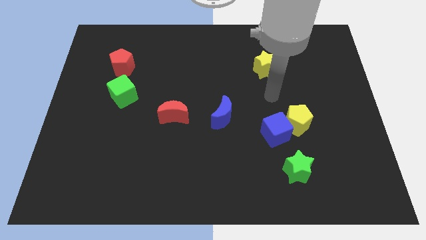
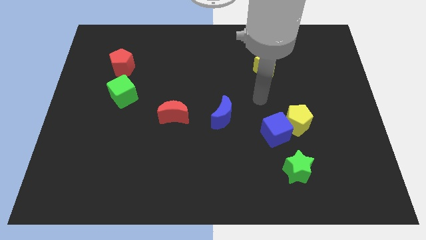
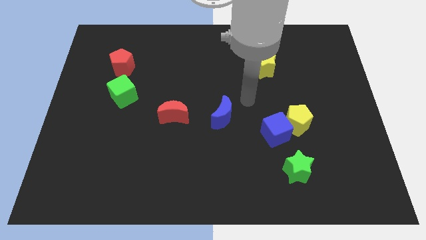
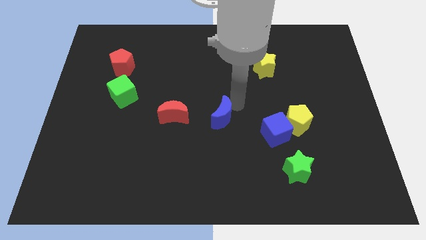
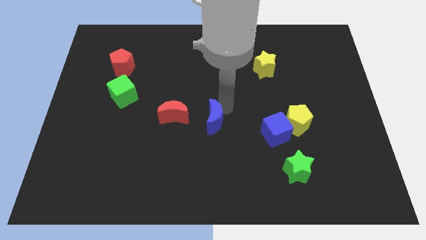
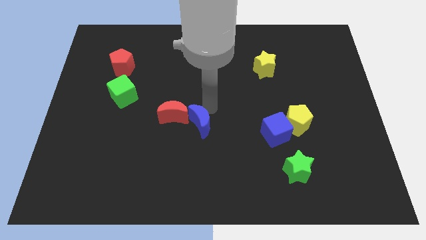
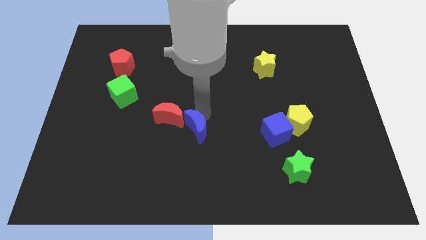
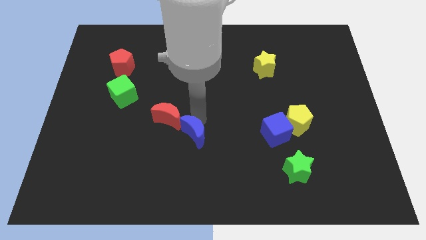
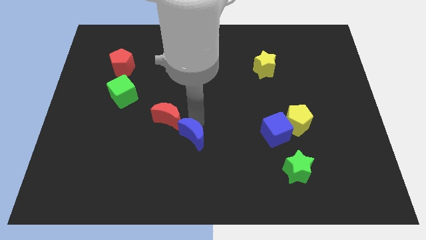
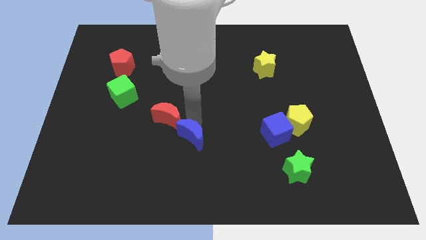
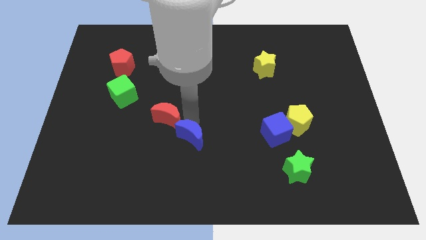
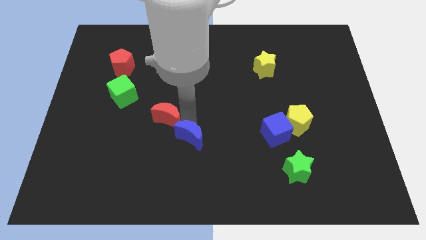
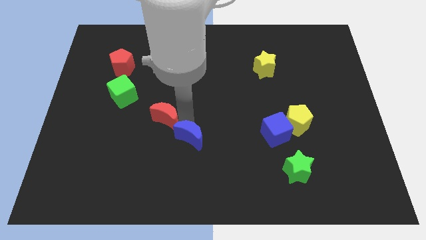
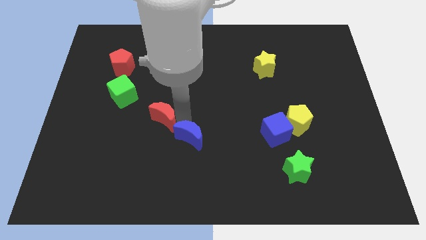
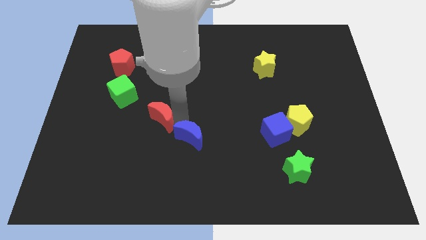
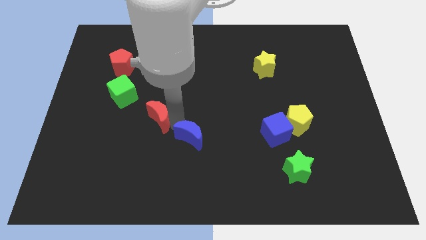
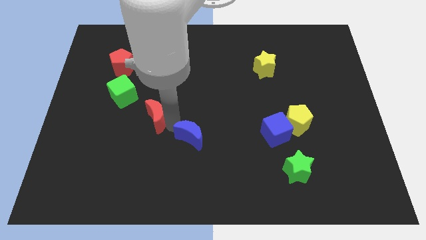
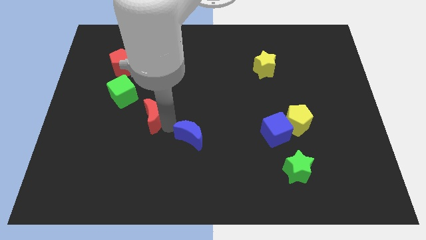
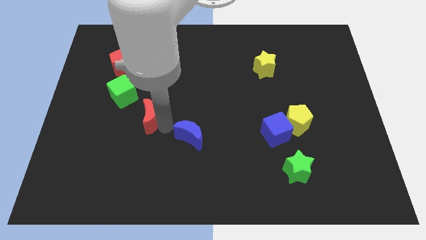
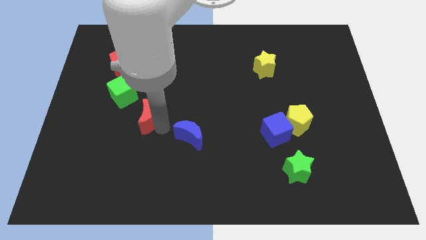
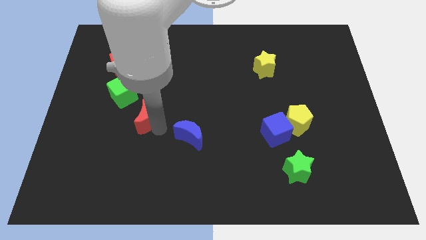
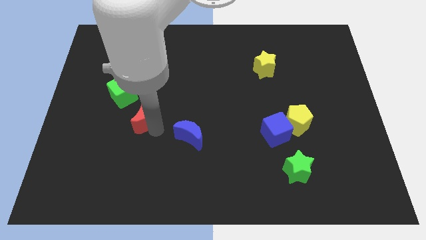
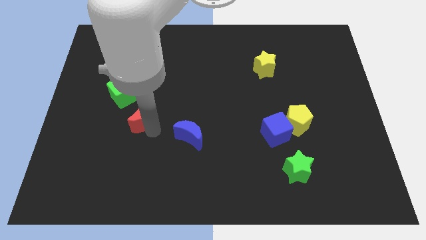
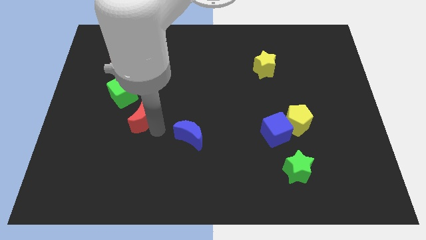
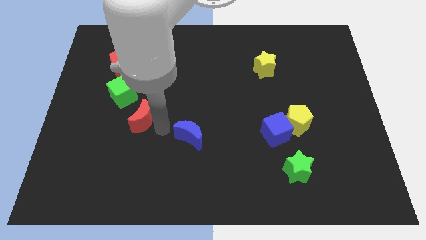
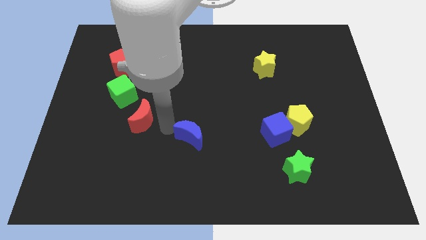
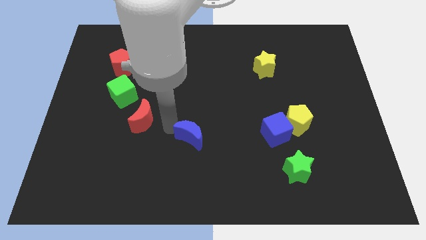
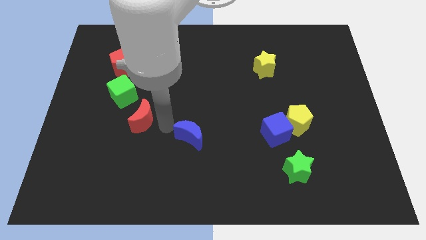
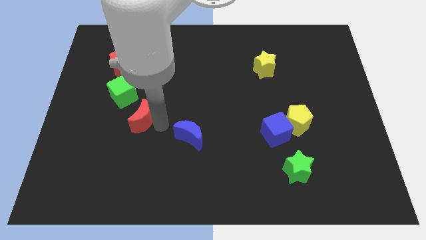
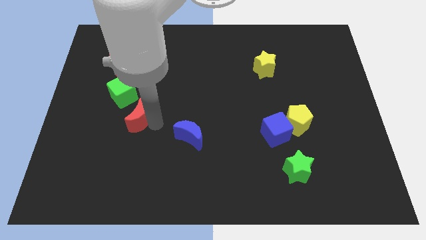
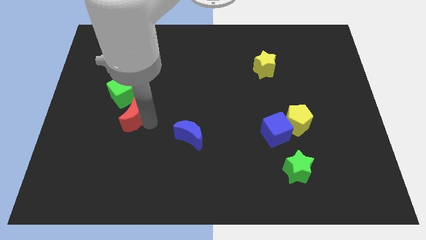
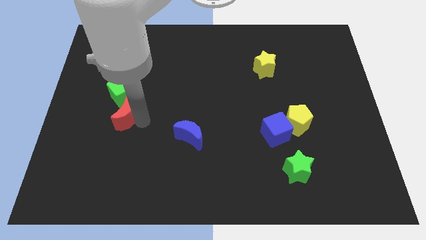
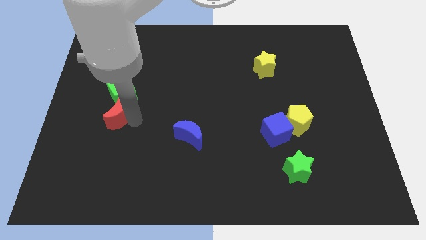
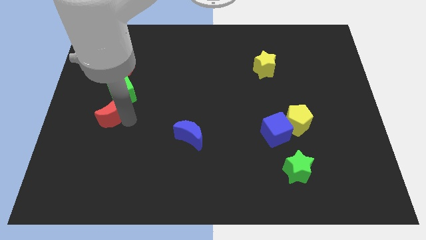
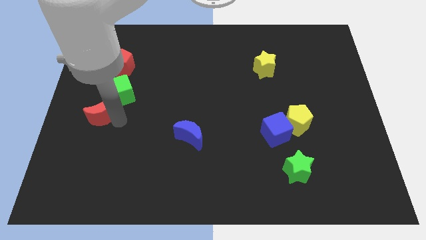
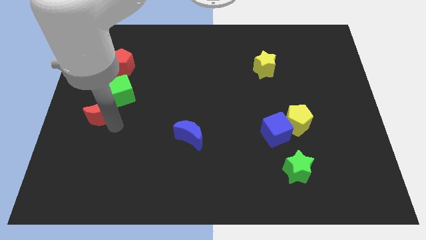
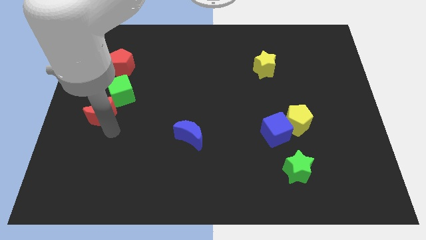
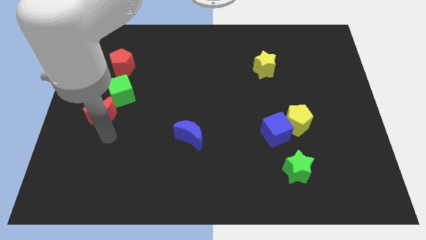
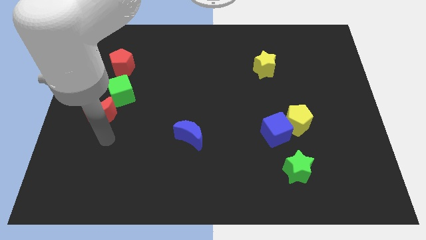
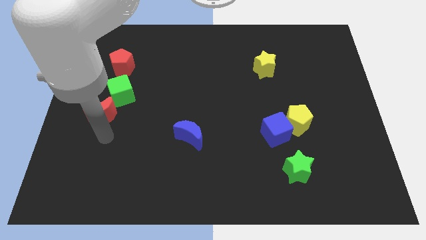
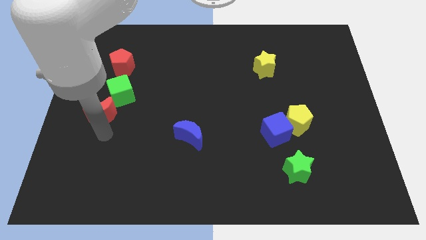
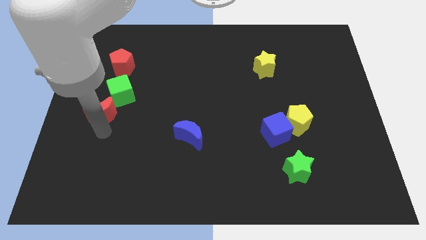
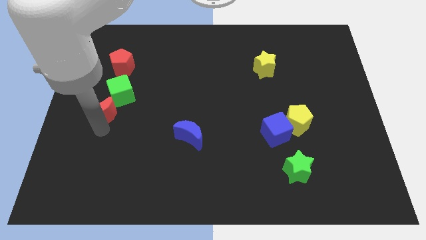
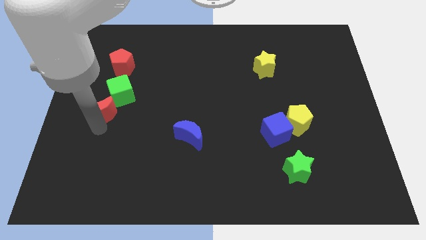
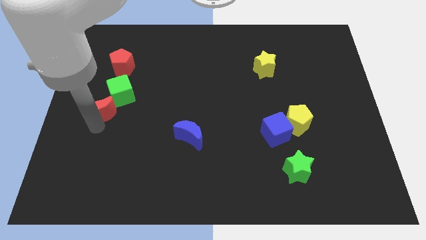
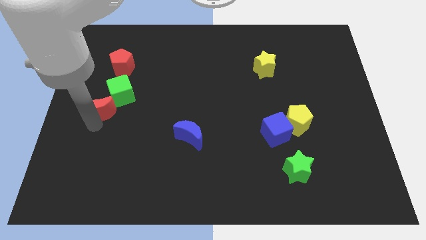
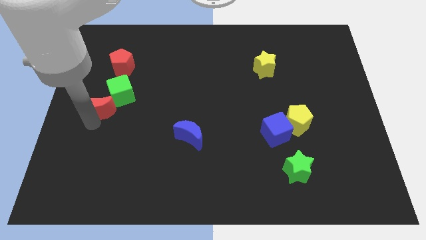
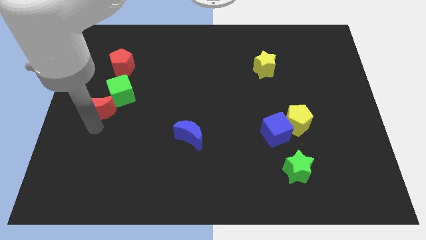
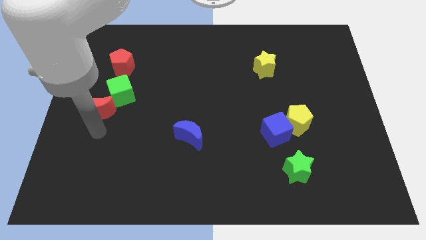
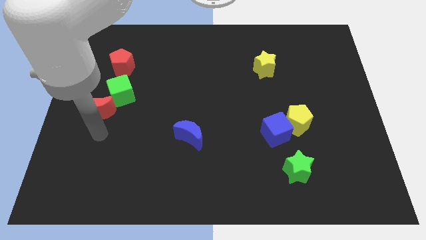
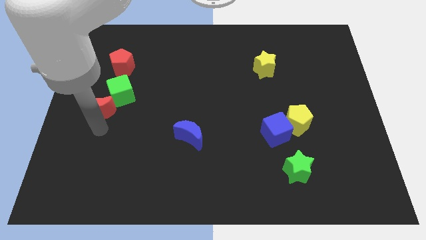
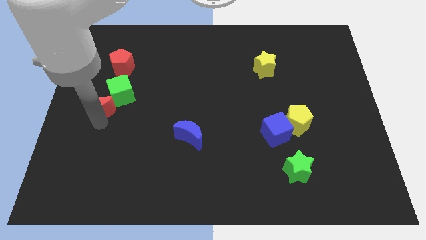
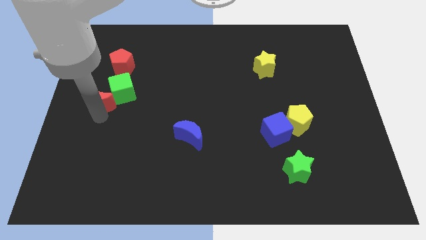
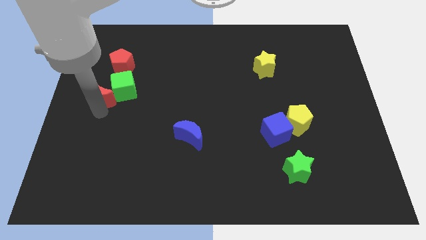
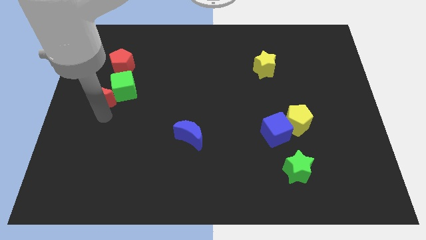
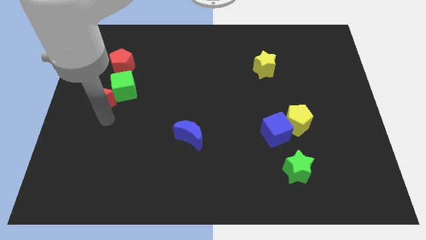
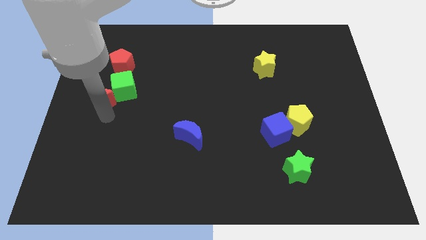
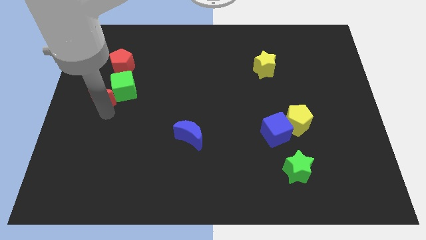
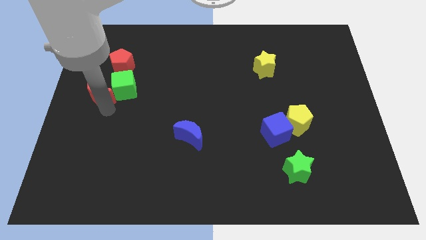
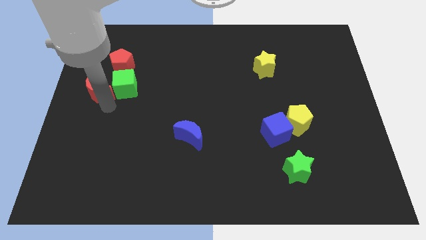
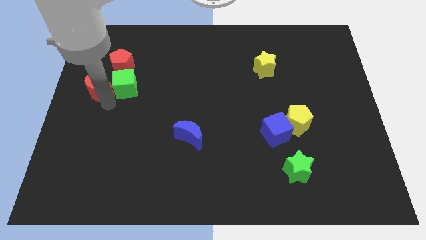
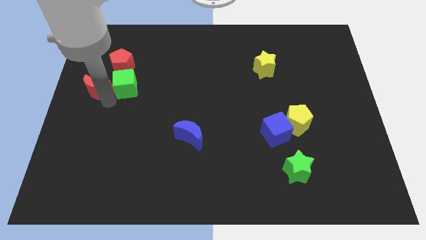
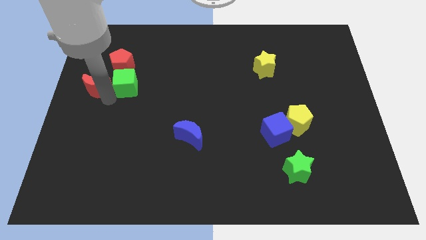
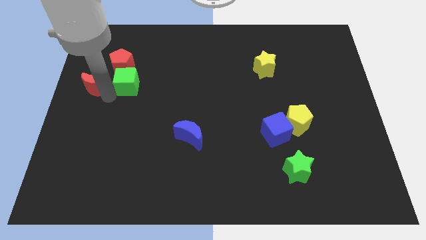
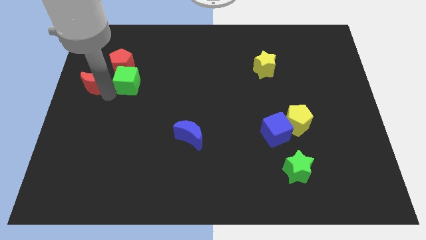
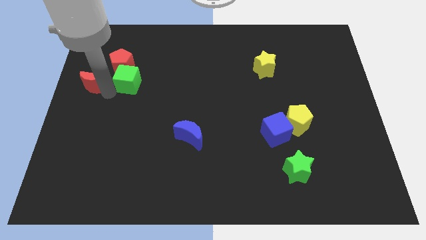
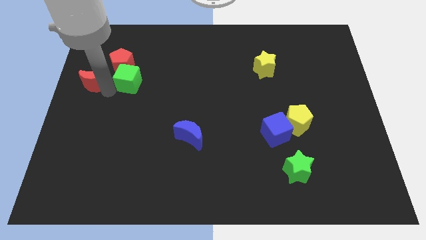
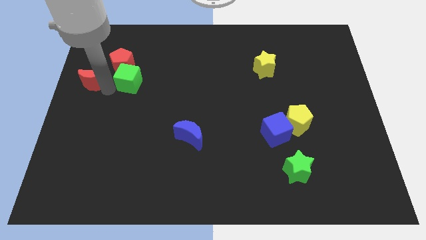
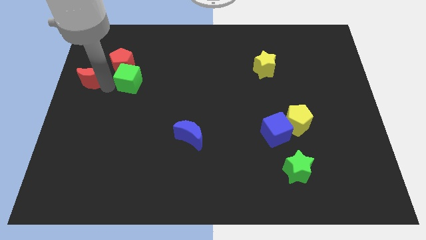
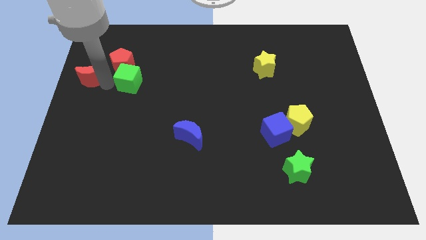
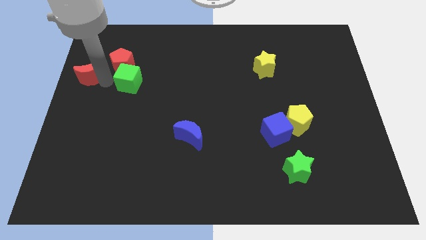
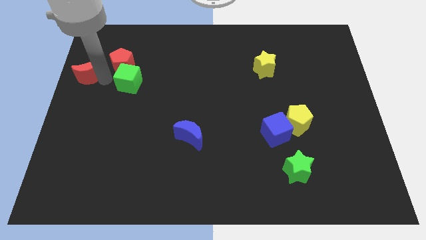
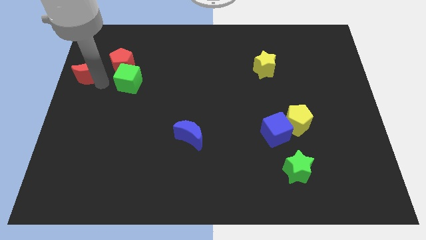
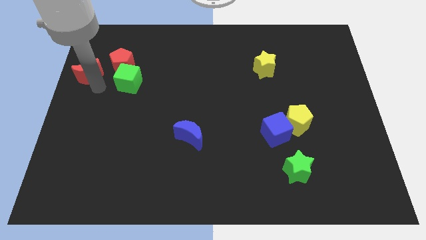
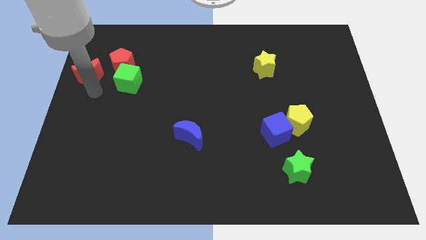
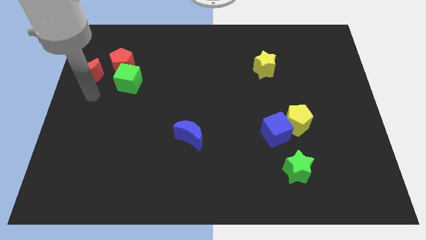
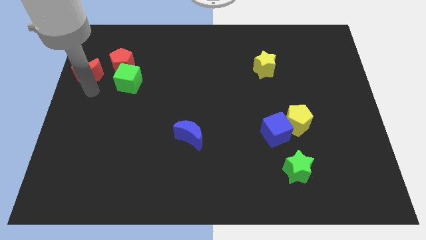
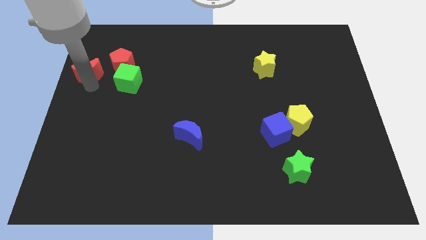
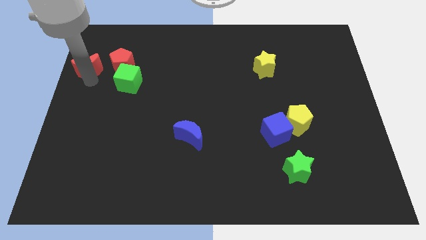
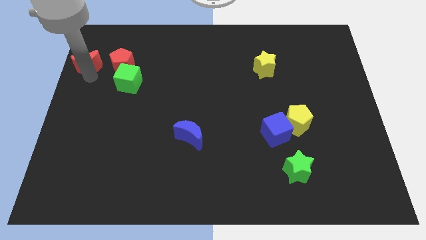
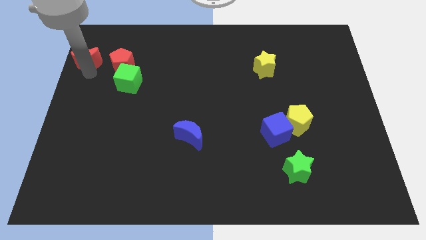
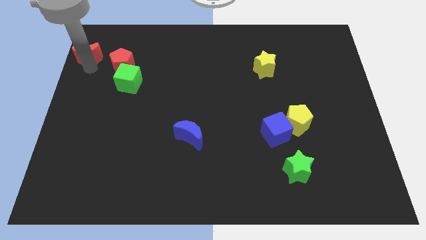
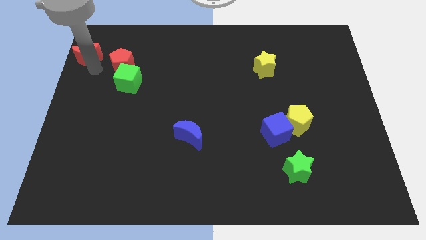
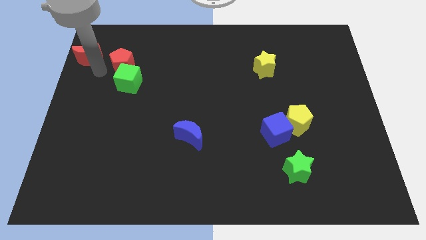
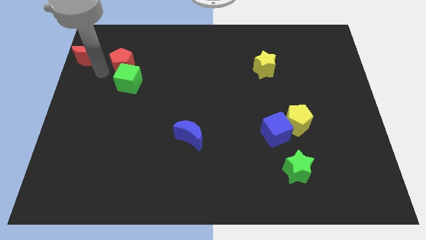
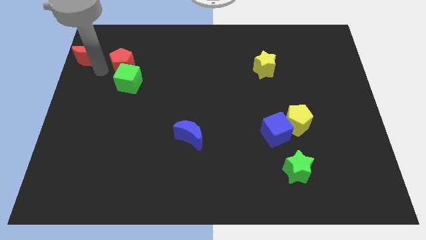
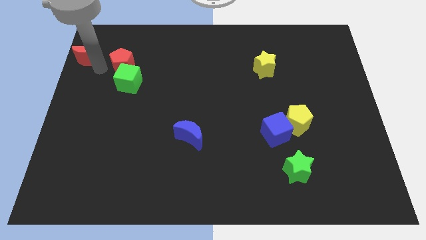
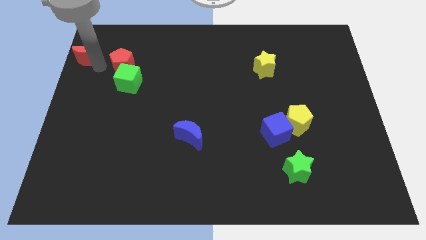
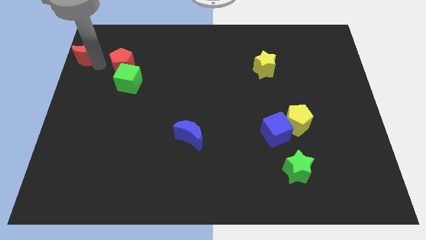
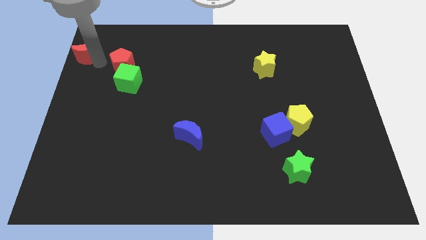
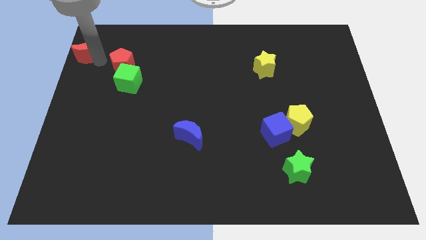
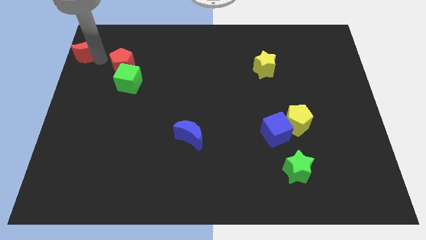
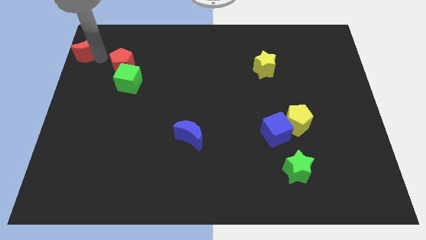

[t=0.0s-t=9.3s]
push the red moon to the top left corner
